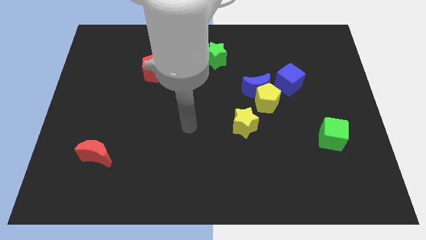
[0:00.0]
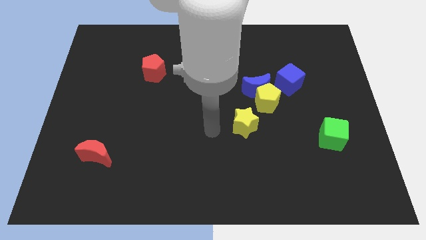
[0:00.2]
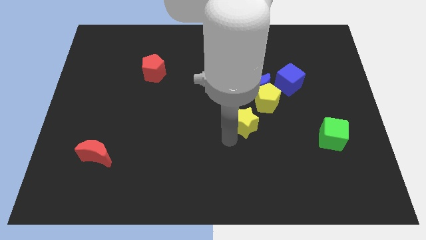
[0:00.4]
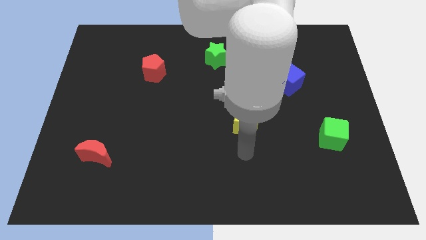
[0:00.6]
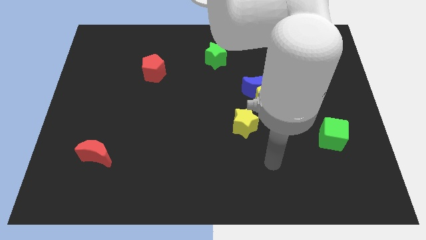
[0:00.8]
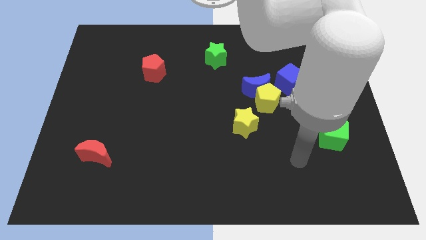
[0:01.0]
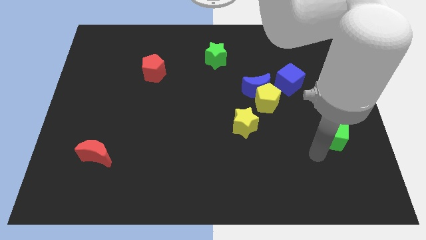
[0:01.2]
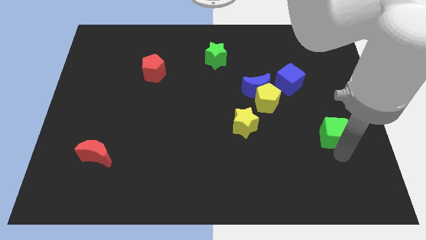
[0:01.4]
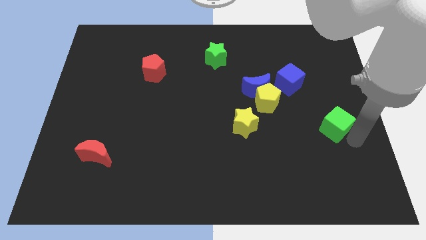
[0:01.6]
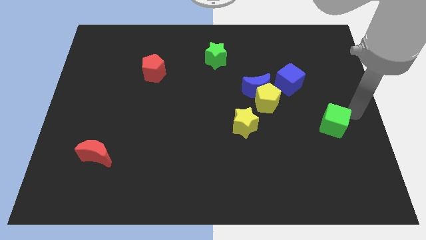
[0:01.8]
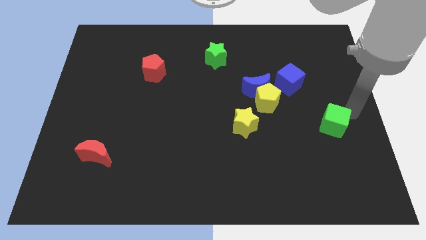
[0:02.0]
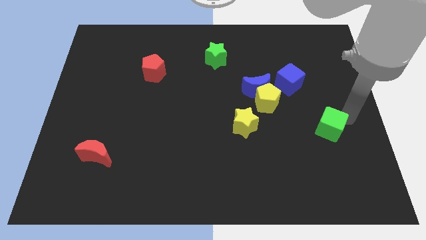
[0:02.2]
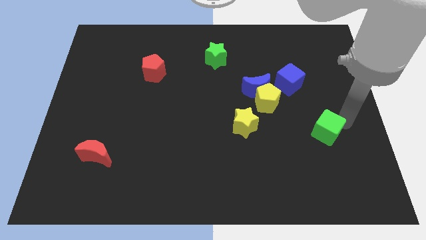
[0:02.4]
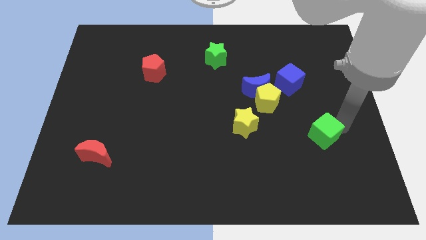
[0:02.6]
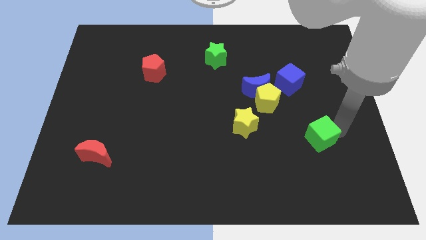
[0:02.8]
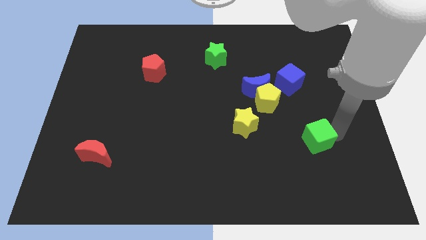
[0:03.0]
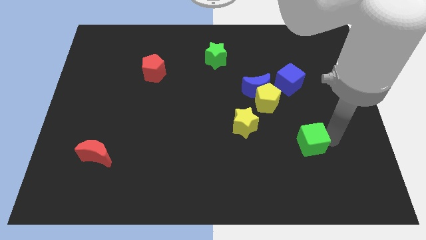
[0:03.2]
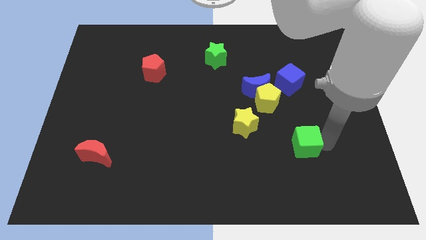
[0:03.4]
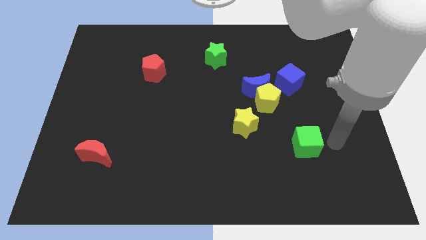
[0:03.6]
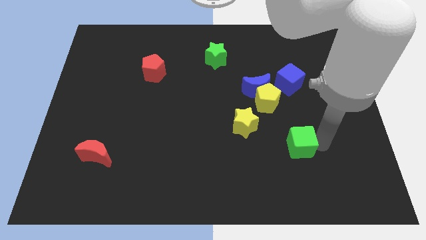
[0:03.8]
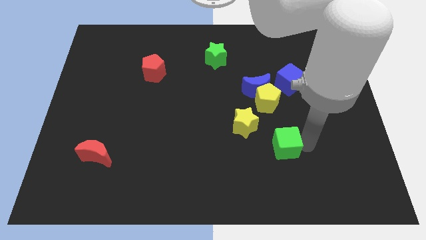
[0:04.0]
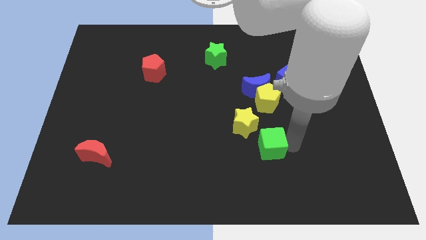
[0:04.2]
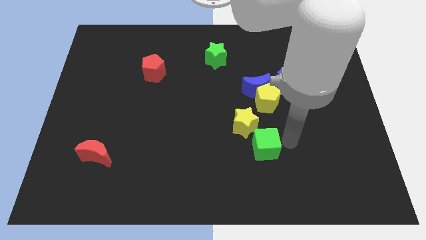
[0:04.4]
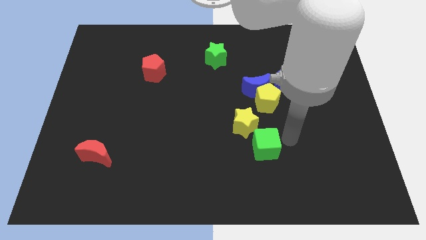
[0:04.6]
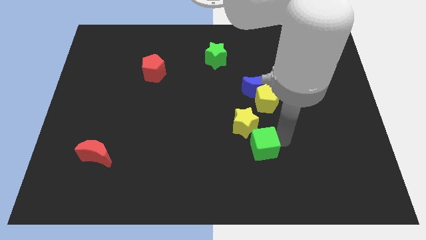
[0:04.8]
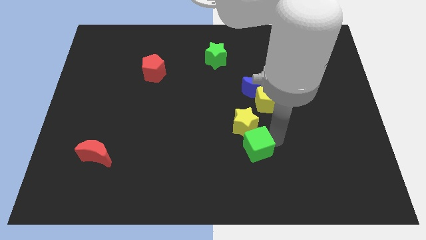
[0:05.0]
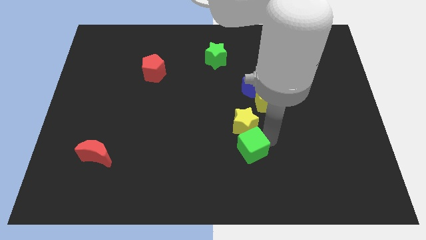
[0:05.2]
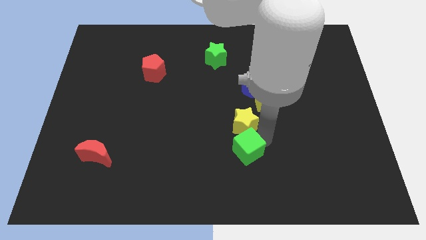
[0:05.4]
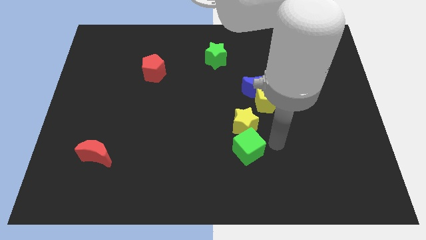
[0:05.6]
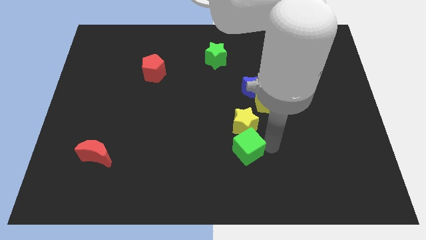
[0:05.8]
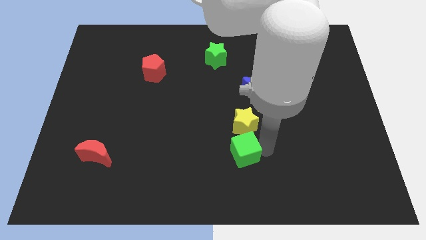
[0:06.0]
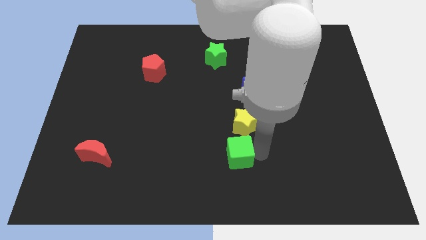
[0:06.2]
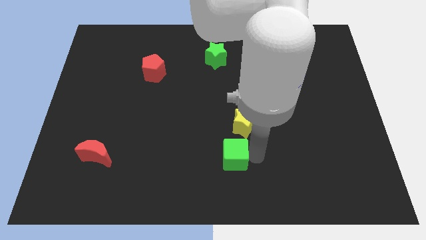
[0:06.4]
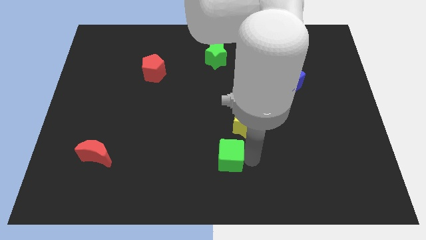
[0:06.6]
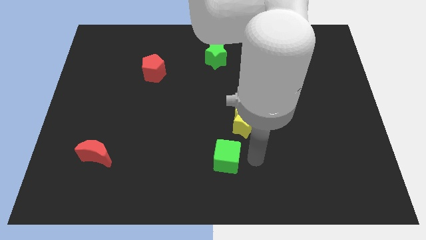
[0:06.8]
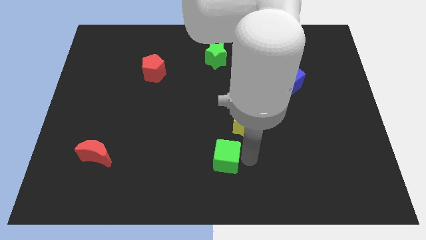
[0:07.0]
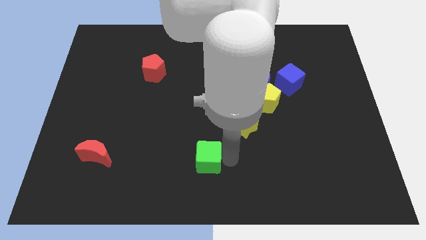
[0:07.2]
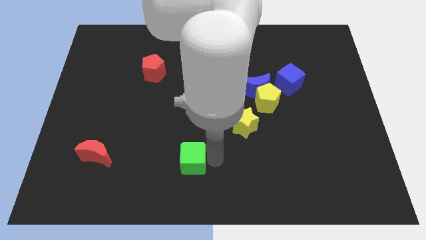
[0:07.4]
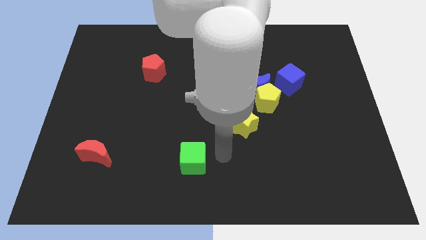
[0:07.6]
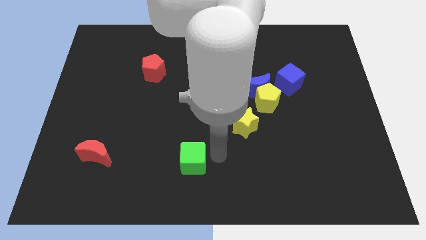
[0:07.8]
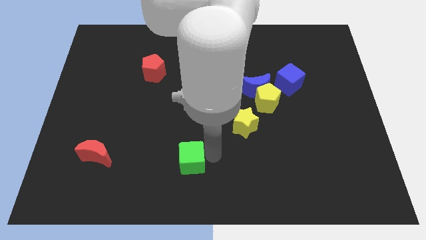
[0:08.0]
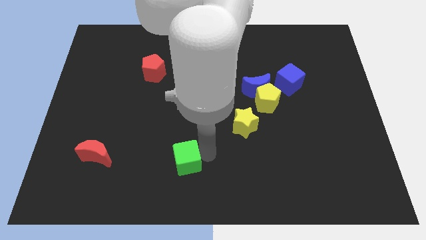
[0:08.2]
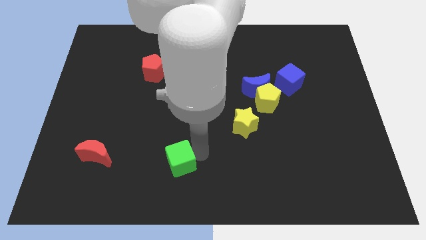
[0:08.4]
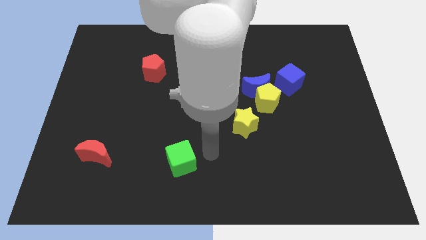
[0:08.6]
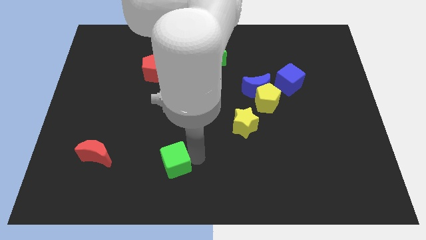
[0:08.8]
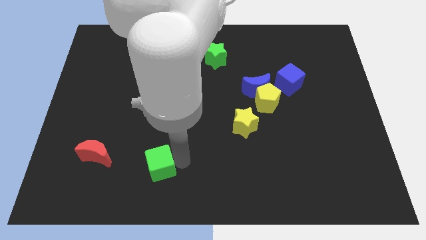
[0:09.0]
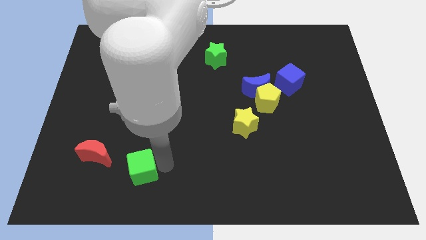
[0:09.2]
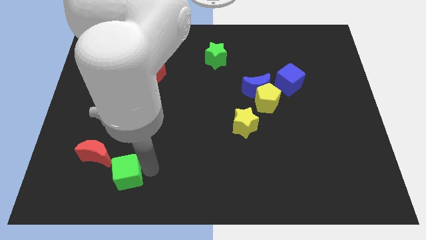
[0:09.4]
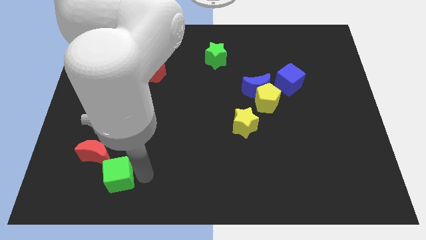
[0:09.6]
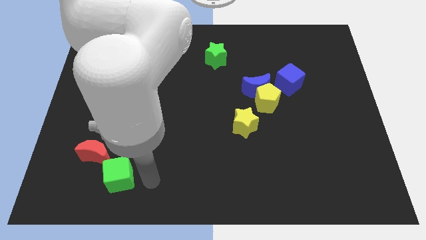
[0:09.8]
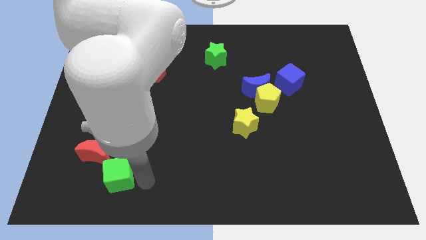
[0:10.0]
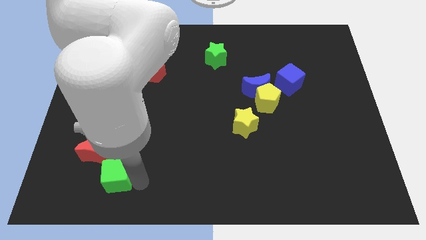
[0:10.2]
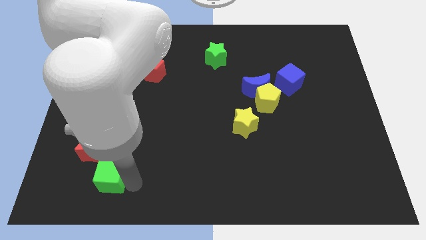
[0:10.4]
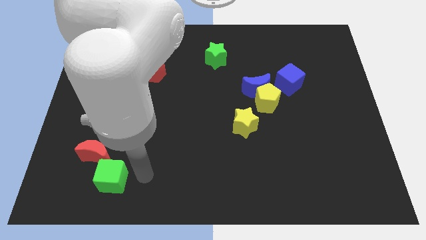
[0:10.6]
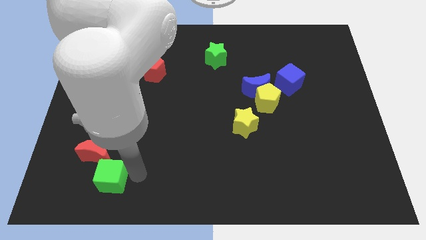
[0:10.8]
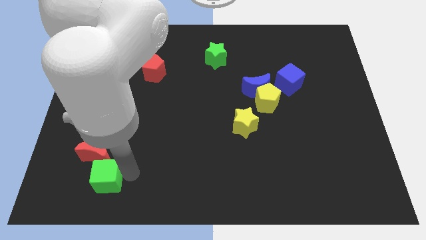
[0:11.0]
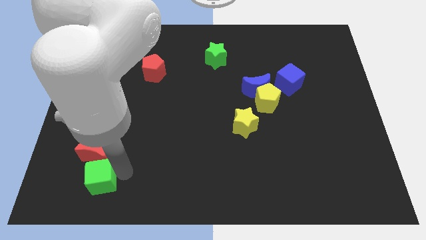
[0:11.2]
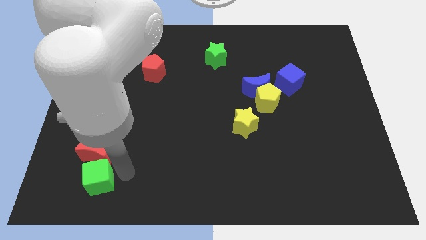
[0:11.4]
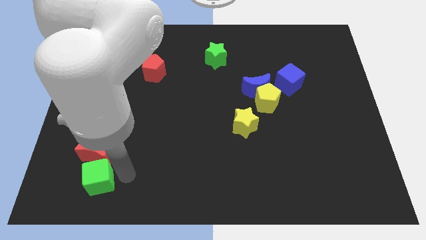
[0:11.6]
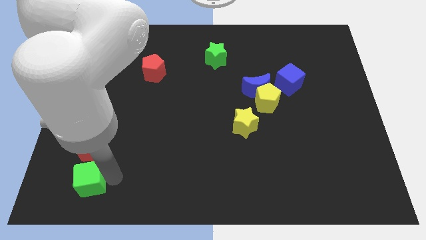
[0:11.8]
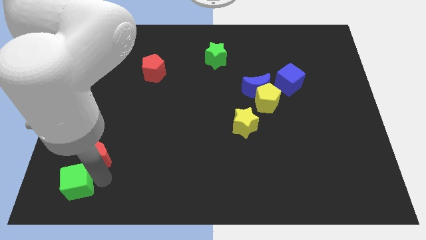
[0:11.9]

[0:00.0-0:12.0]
put the green cube to the bottom left

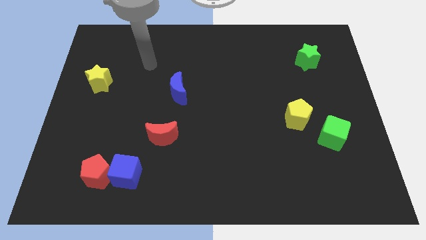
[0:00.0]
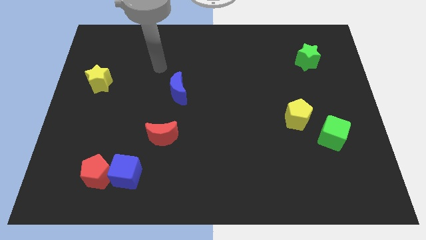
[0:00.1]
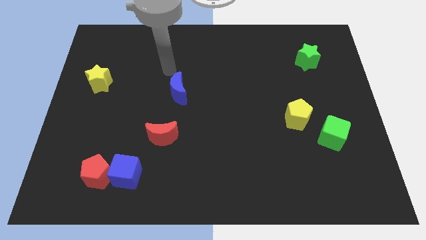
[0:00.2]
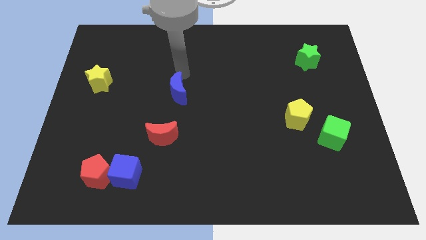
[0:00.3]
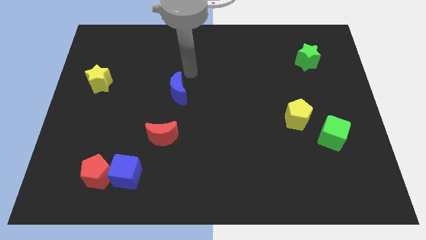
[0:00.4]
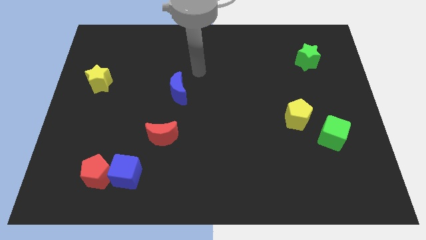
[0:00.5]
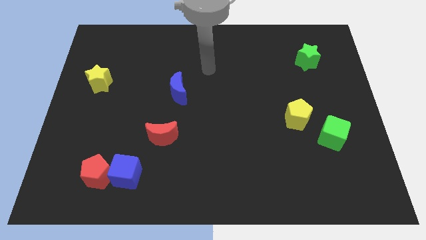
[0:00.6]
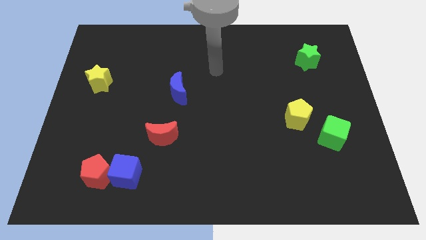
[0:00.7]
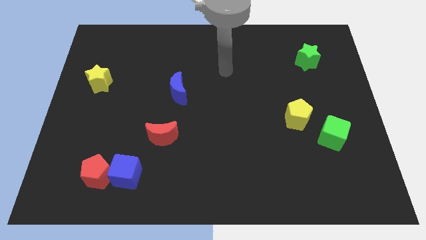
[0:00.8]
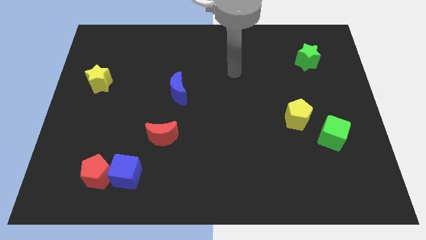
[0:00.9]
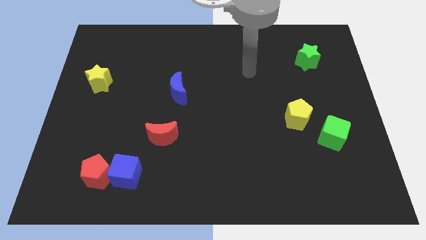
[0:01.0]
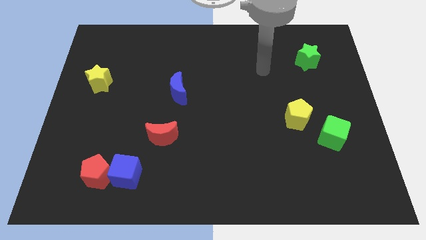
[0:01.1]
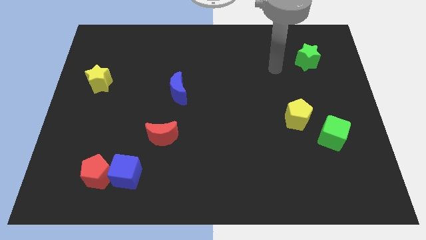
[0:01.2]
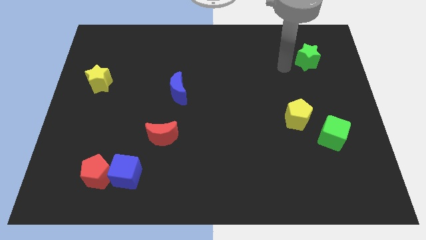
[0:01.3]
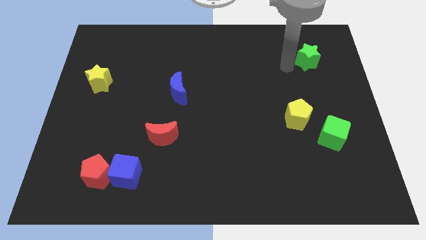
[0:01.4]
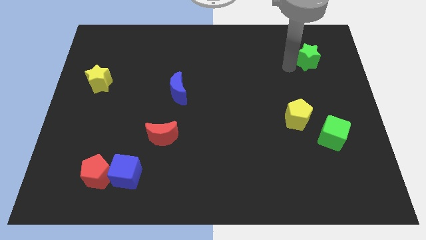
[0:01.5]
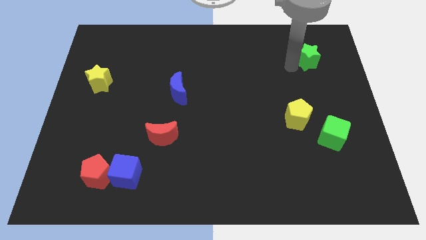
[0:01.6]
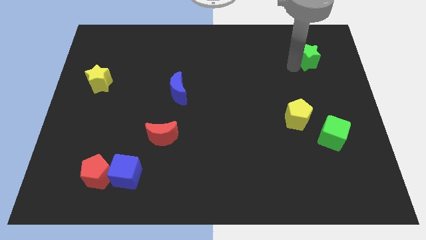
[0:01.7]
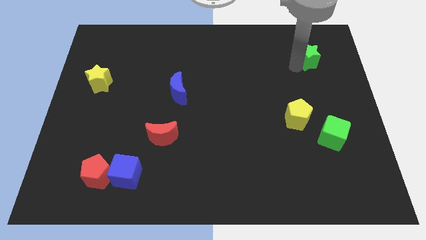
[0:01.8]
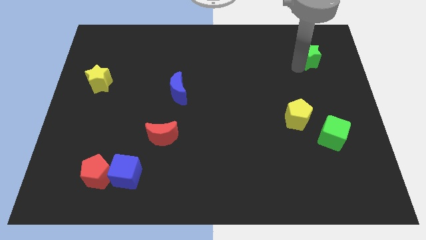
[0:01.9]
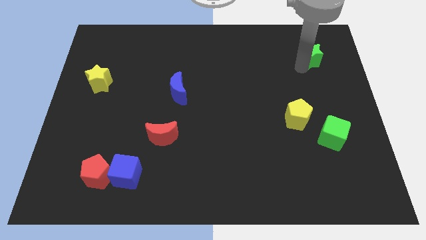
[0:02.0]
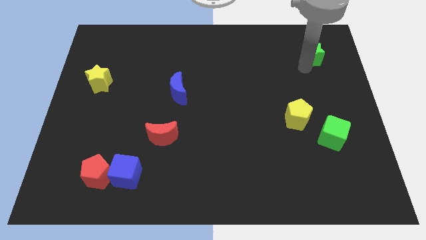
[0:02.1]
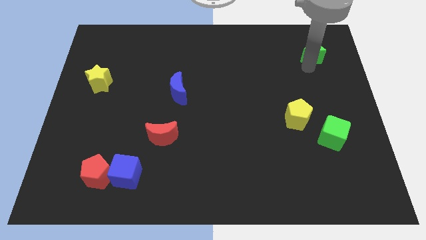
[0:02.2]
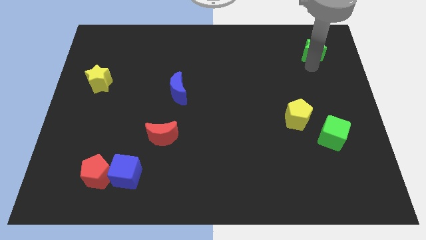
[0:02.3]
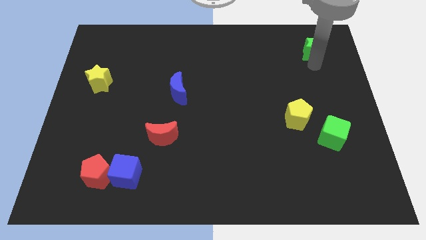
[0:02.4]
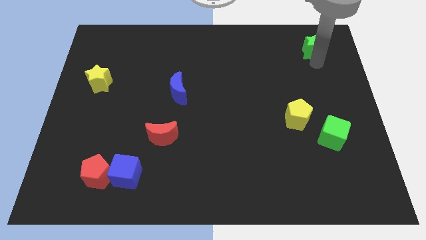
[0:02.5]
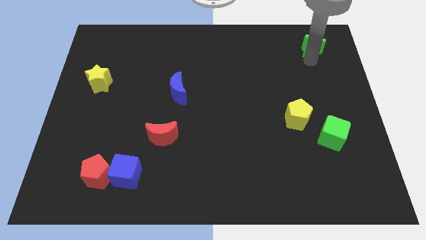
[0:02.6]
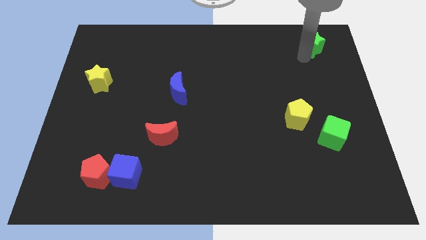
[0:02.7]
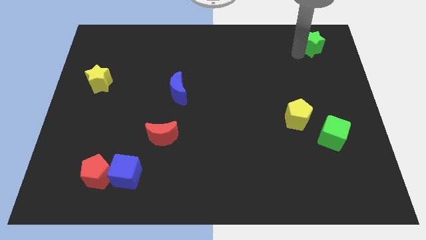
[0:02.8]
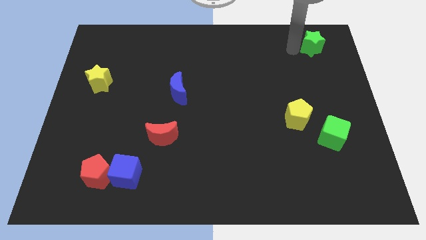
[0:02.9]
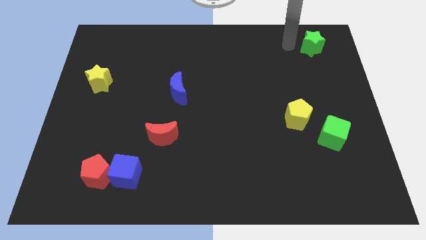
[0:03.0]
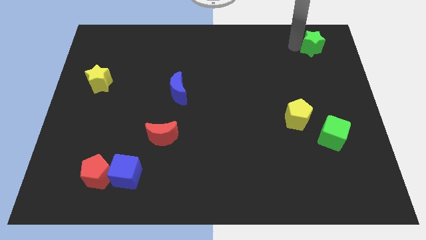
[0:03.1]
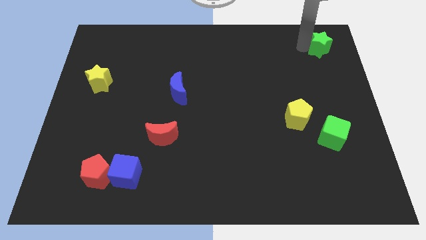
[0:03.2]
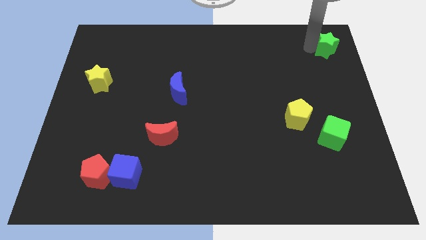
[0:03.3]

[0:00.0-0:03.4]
slide the green star to the top right of the board
